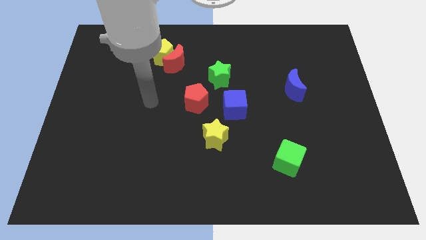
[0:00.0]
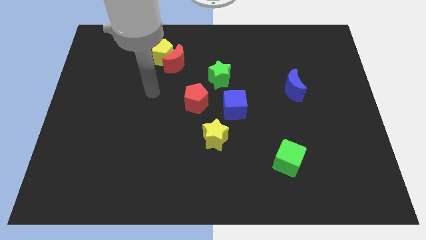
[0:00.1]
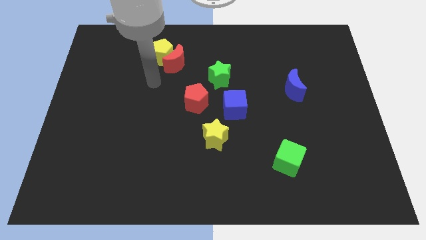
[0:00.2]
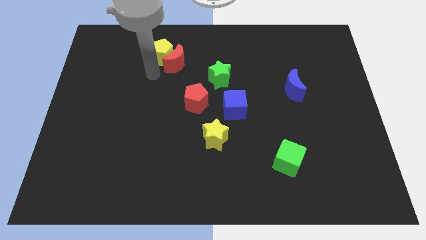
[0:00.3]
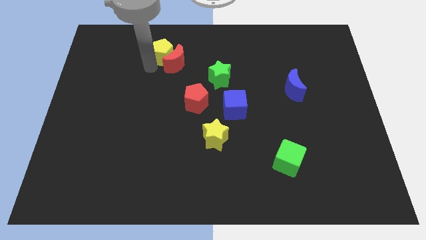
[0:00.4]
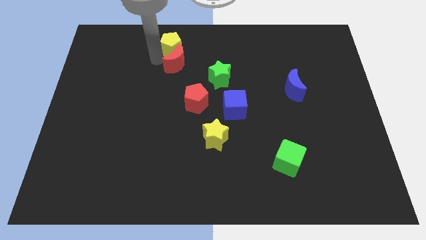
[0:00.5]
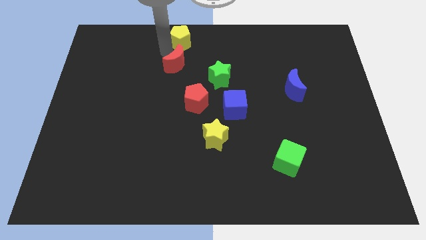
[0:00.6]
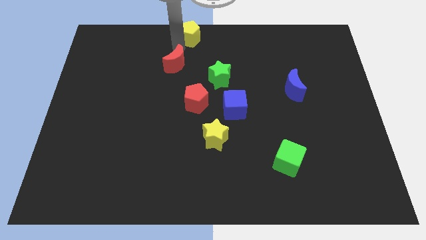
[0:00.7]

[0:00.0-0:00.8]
pull the red moon apart from the yellow pentagon

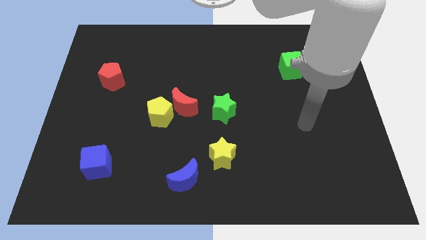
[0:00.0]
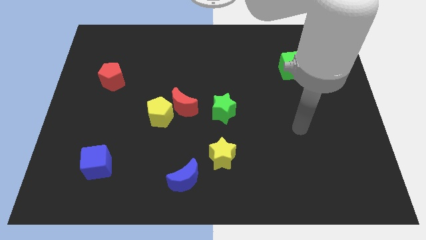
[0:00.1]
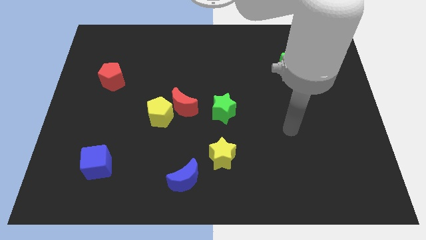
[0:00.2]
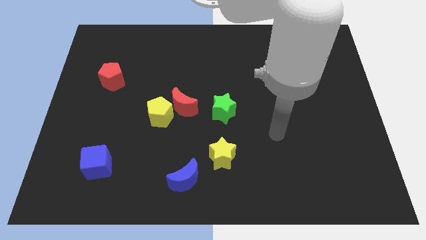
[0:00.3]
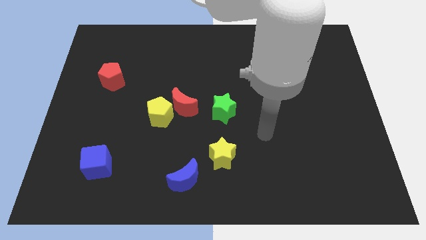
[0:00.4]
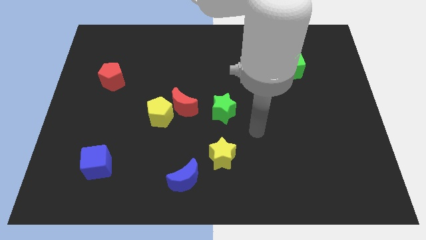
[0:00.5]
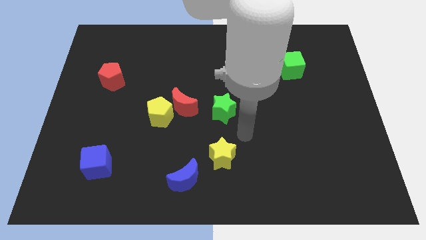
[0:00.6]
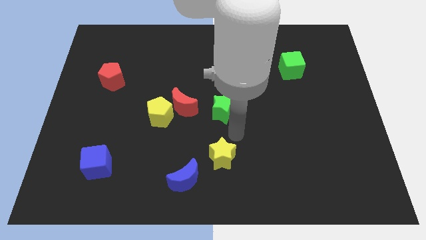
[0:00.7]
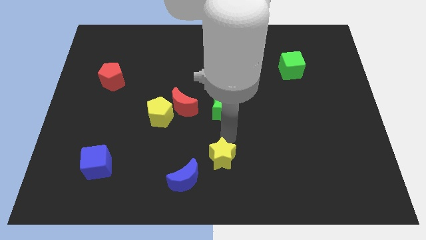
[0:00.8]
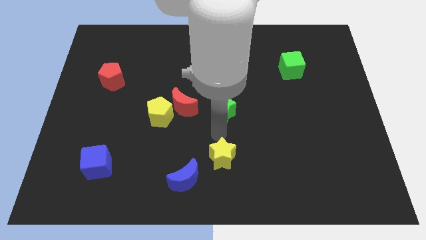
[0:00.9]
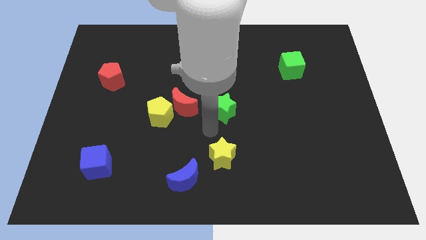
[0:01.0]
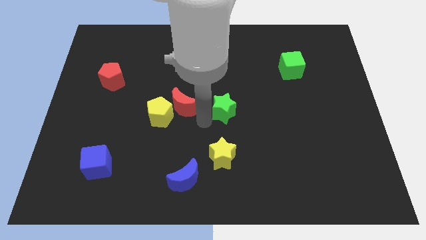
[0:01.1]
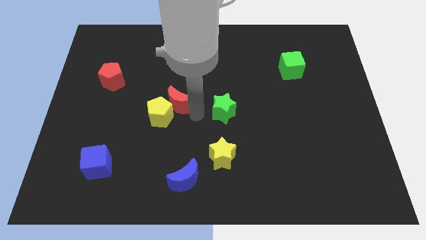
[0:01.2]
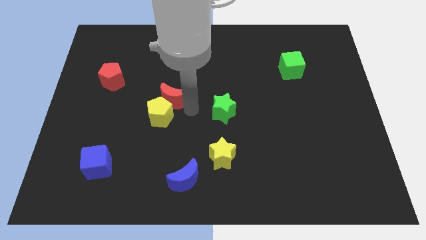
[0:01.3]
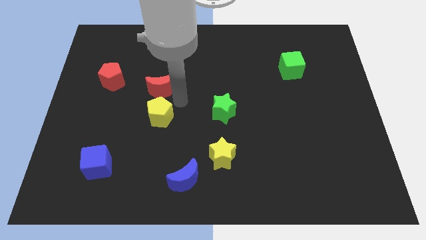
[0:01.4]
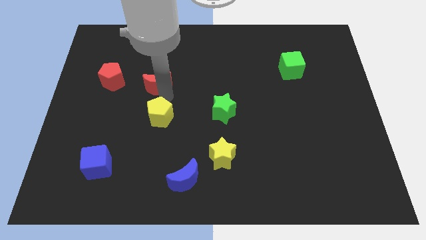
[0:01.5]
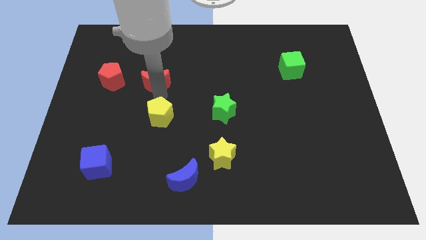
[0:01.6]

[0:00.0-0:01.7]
move the yellow pentagon away from the red moon

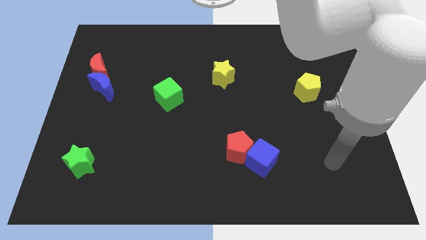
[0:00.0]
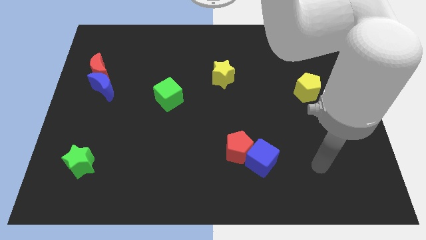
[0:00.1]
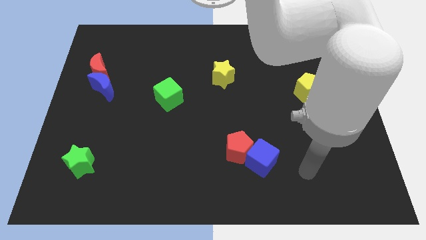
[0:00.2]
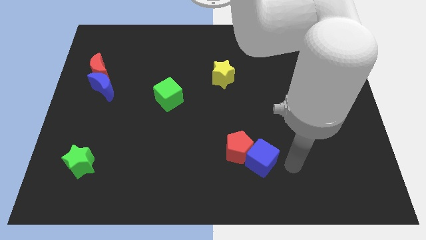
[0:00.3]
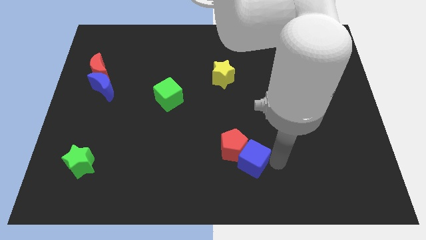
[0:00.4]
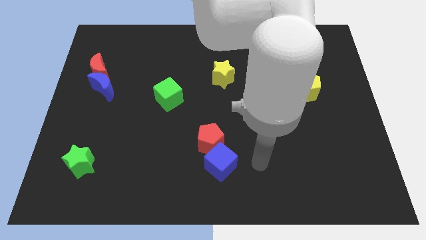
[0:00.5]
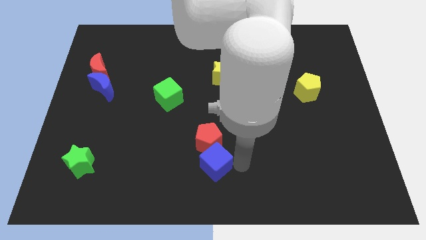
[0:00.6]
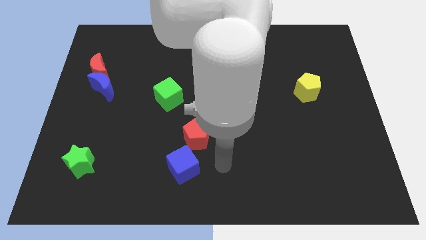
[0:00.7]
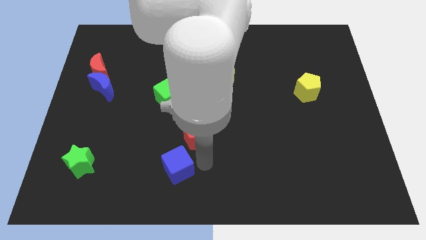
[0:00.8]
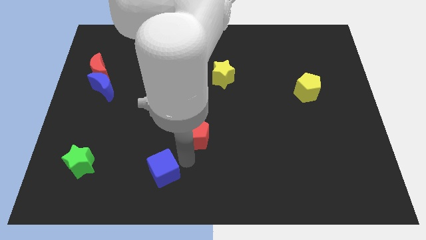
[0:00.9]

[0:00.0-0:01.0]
pull the red pentagon apart from the blue cube

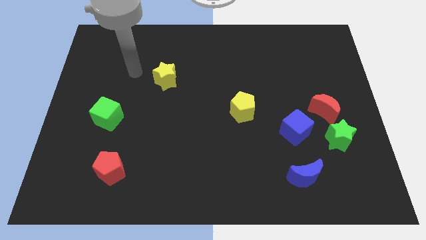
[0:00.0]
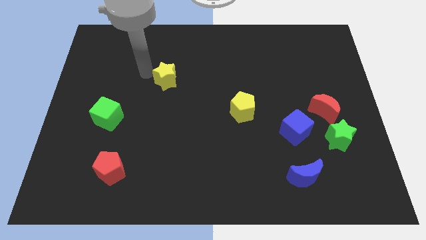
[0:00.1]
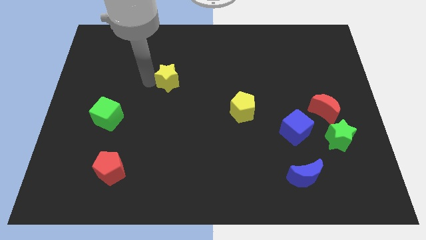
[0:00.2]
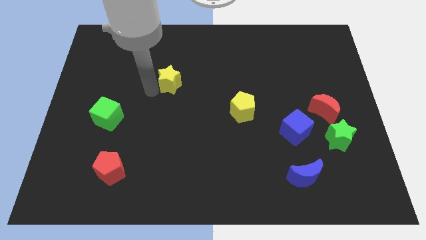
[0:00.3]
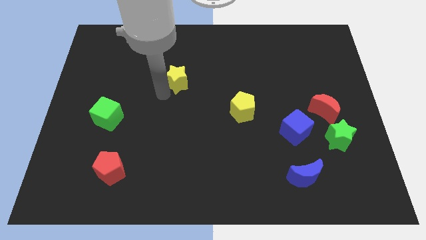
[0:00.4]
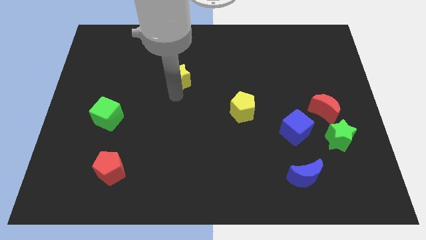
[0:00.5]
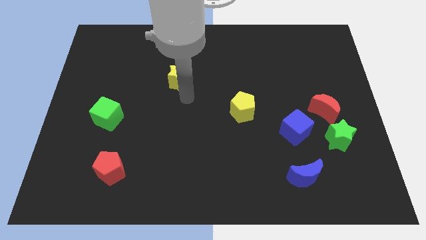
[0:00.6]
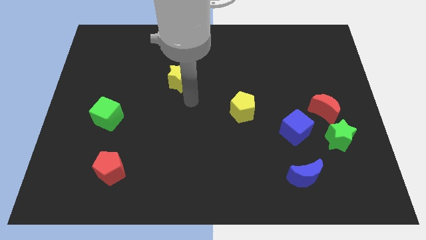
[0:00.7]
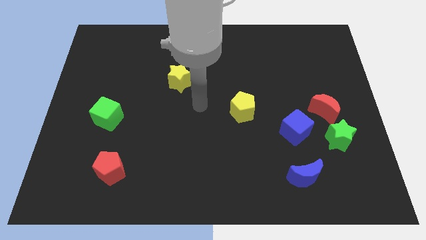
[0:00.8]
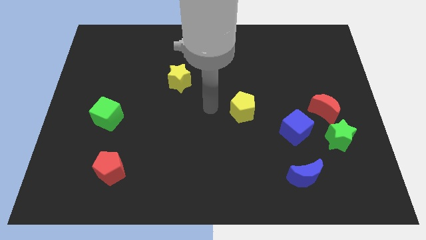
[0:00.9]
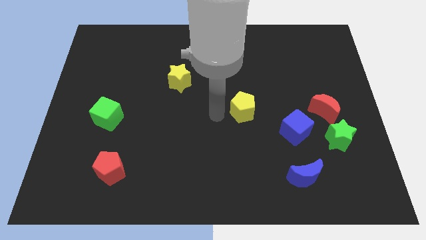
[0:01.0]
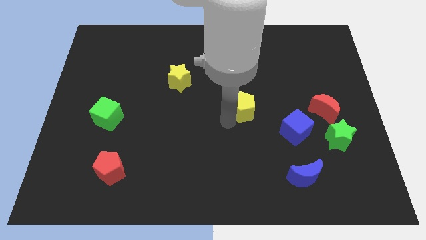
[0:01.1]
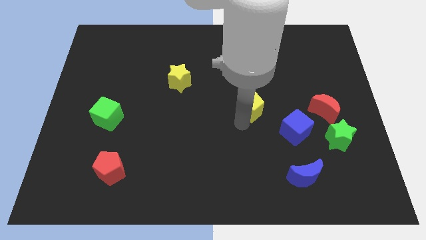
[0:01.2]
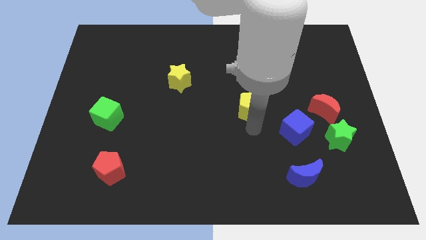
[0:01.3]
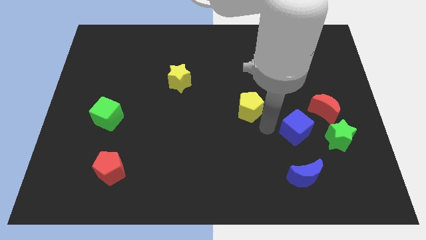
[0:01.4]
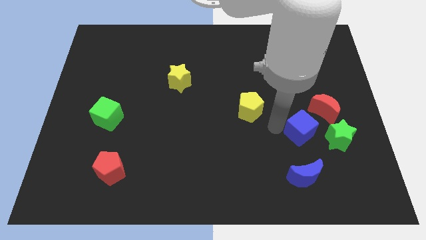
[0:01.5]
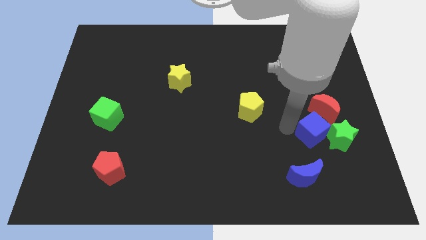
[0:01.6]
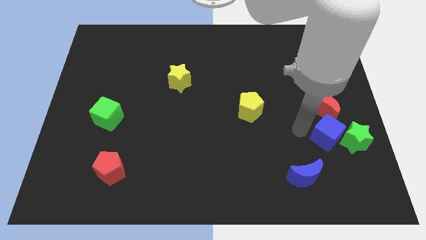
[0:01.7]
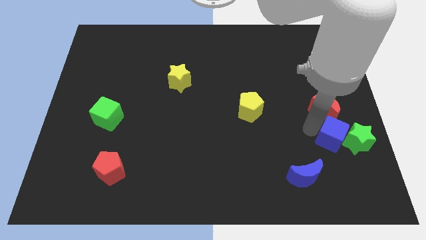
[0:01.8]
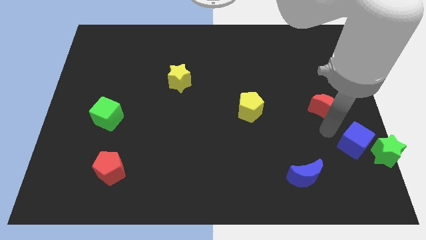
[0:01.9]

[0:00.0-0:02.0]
separate the red moon from the green star and blue cube

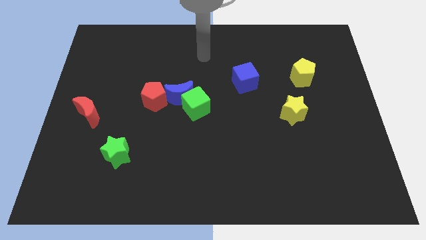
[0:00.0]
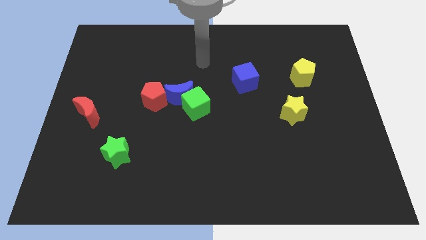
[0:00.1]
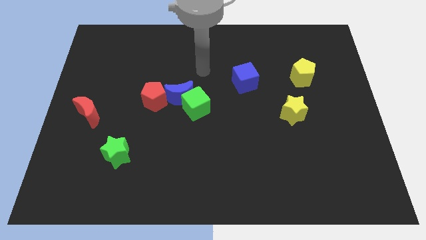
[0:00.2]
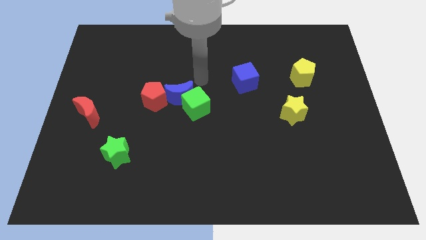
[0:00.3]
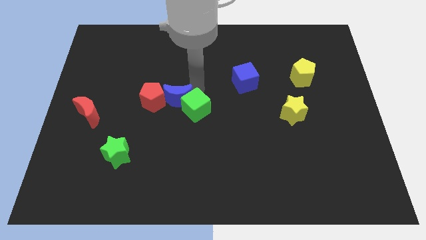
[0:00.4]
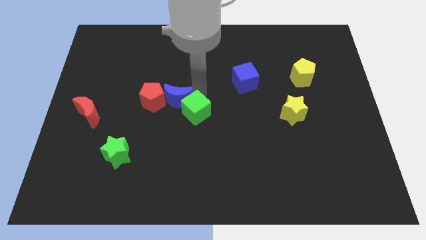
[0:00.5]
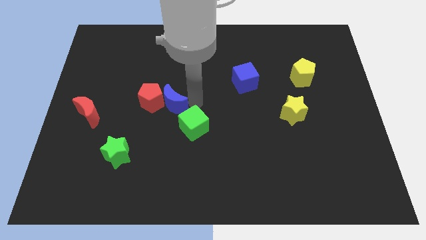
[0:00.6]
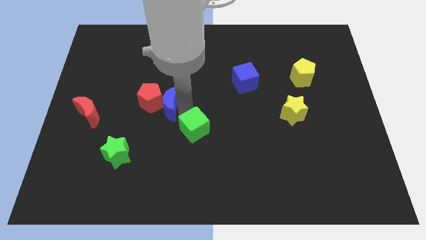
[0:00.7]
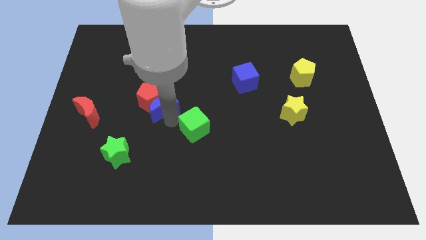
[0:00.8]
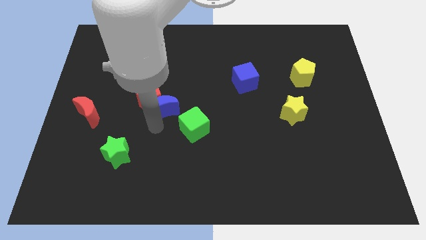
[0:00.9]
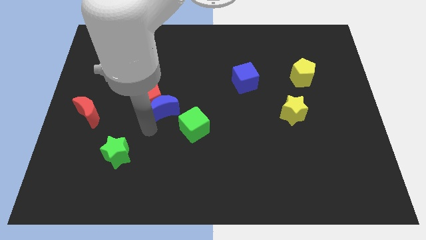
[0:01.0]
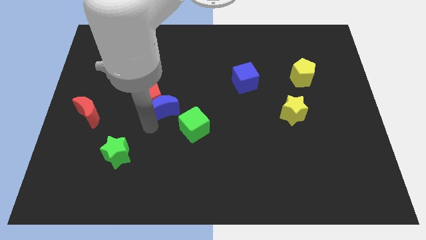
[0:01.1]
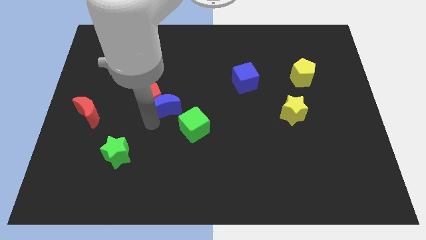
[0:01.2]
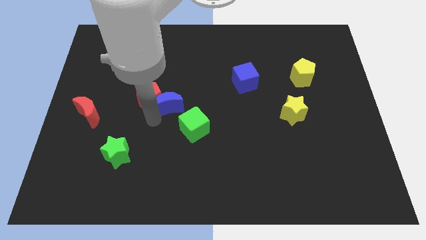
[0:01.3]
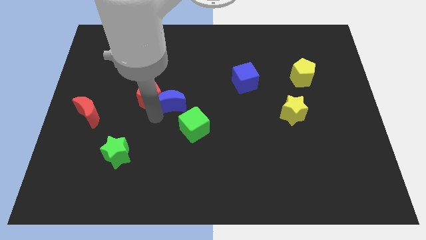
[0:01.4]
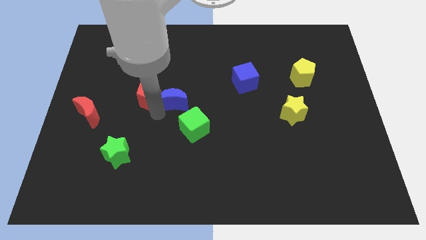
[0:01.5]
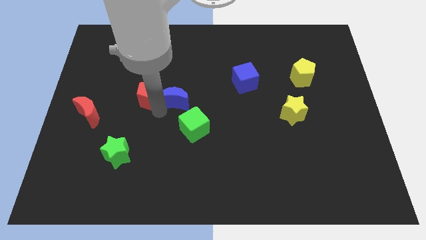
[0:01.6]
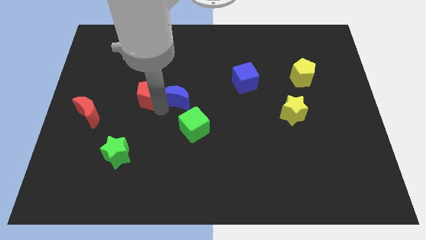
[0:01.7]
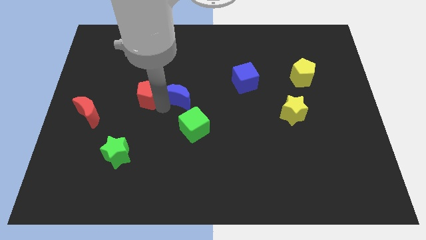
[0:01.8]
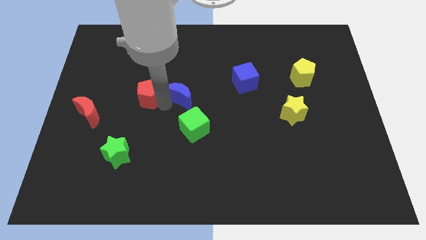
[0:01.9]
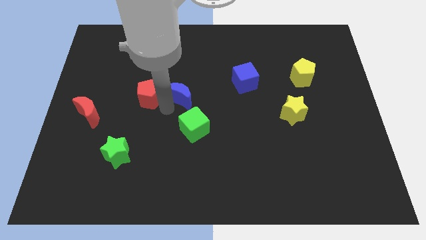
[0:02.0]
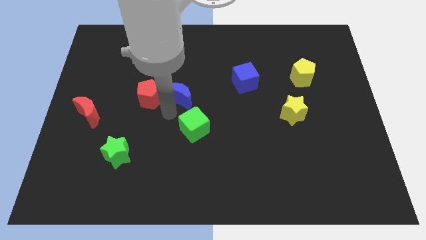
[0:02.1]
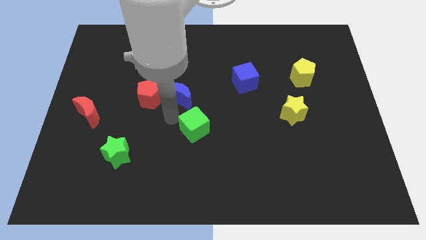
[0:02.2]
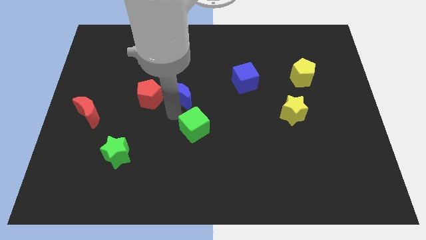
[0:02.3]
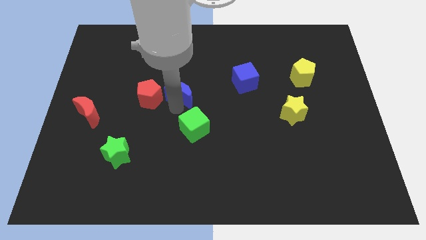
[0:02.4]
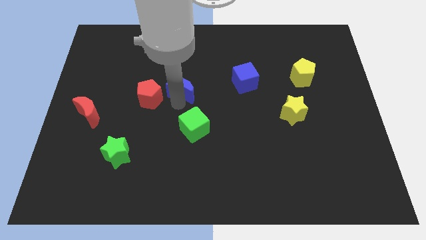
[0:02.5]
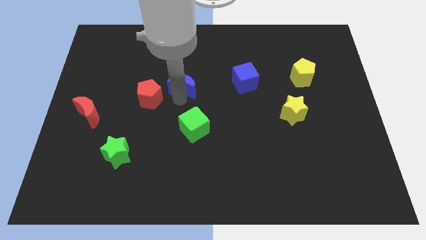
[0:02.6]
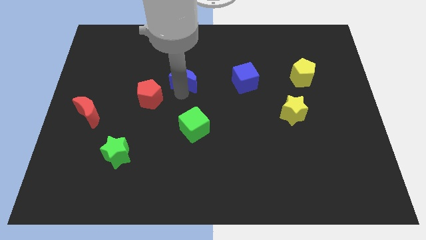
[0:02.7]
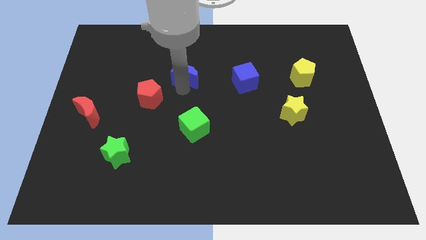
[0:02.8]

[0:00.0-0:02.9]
separate the blue moon from the green cube and red pentagon

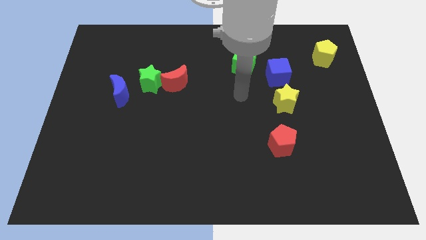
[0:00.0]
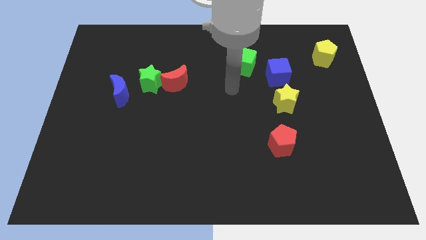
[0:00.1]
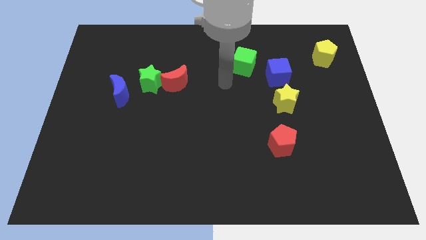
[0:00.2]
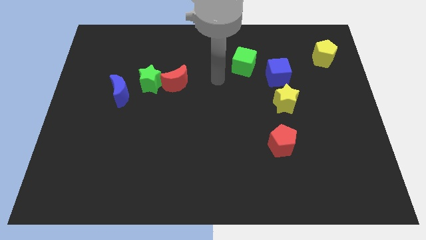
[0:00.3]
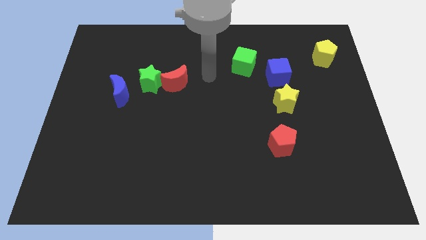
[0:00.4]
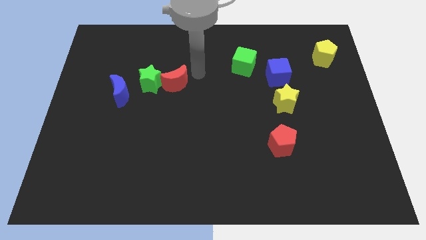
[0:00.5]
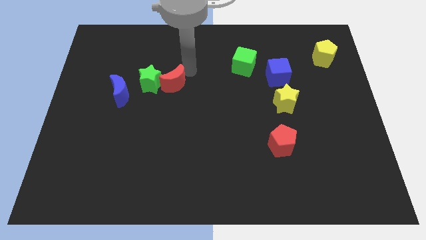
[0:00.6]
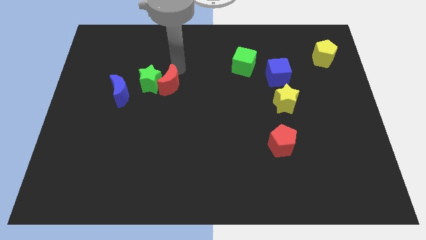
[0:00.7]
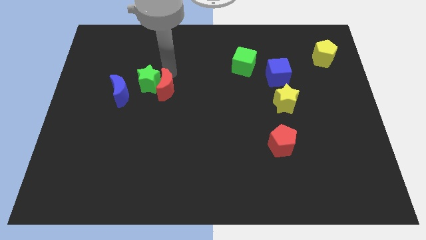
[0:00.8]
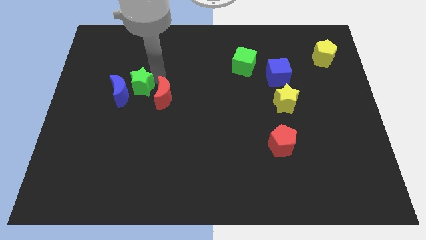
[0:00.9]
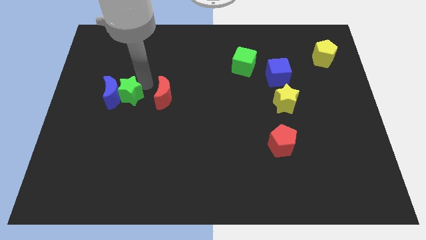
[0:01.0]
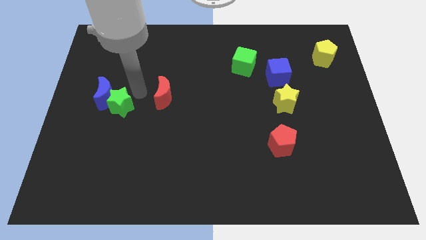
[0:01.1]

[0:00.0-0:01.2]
pull the red moon apart from the green star
